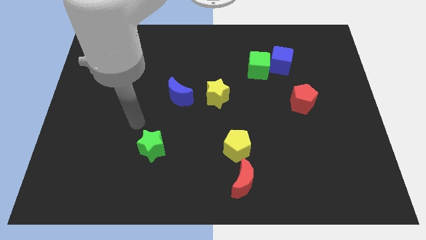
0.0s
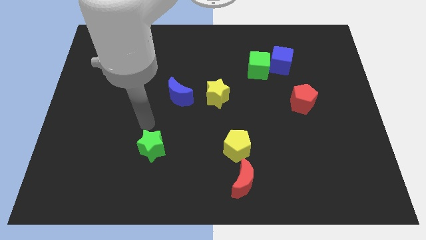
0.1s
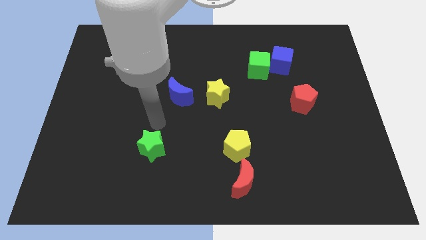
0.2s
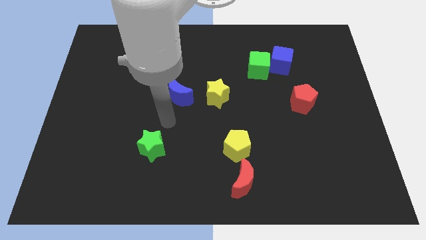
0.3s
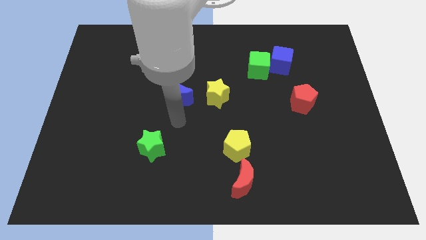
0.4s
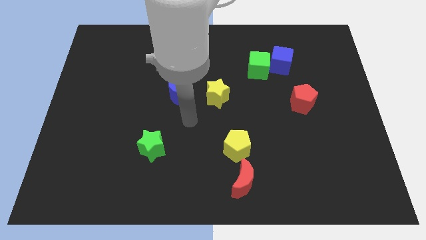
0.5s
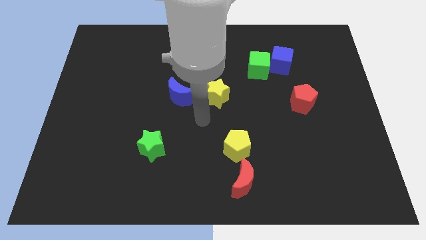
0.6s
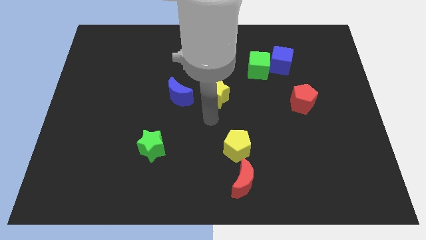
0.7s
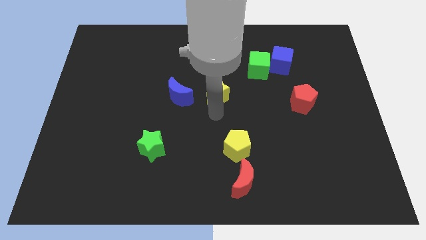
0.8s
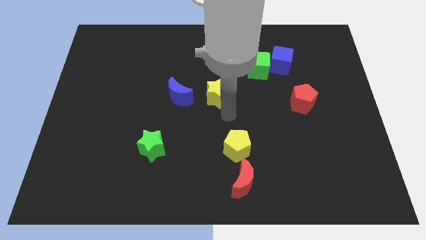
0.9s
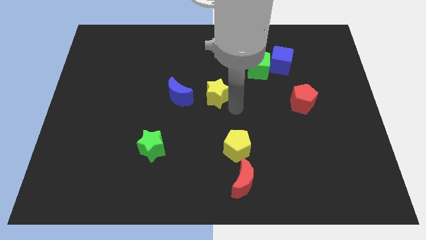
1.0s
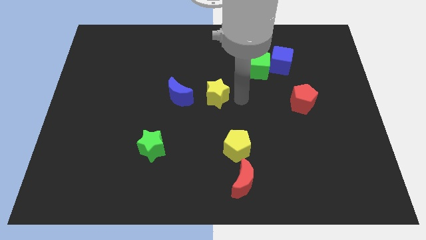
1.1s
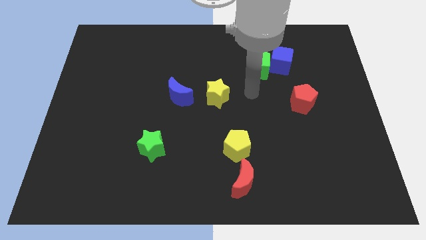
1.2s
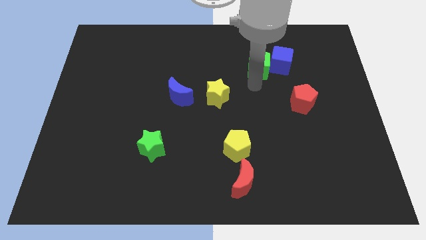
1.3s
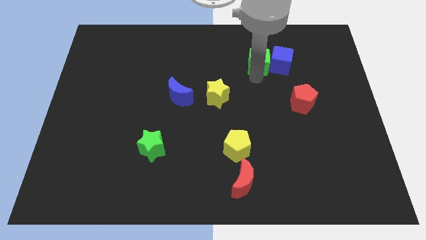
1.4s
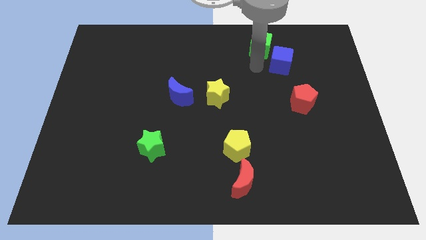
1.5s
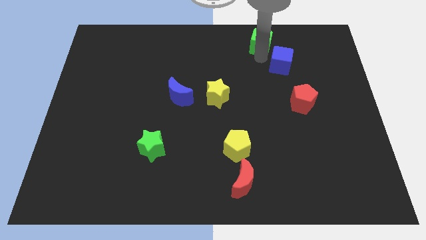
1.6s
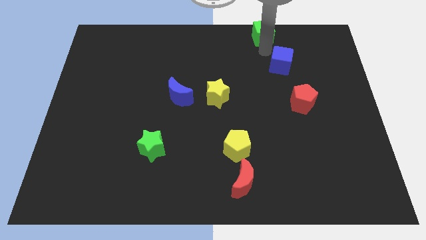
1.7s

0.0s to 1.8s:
separate the blue cube from the green cube

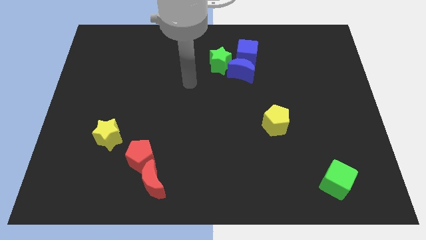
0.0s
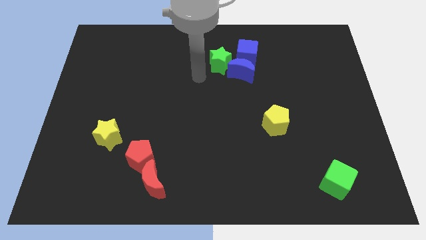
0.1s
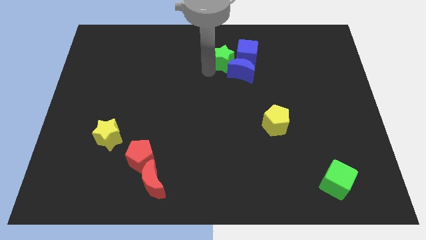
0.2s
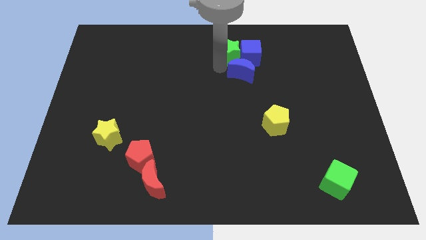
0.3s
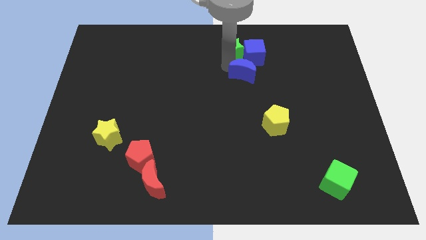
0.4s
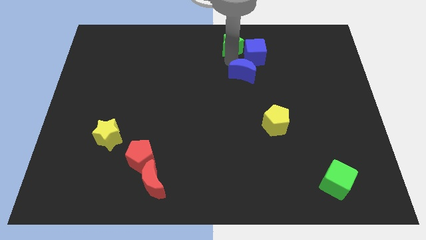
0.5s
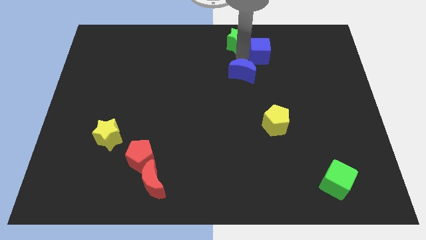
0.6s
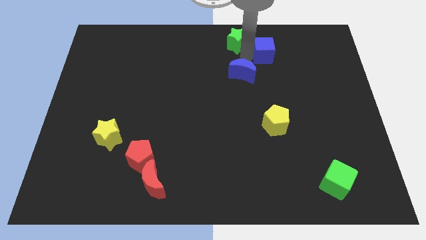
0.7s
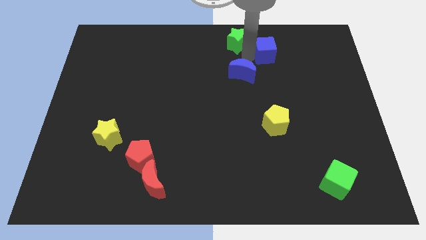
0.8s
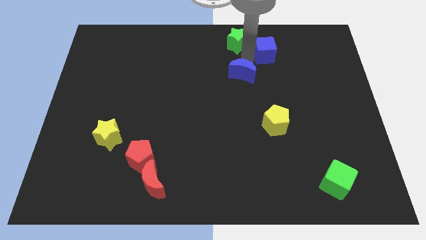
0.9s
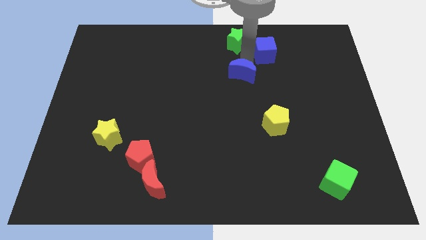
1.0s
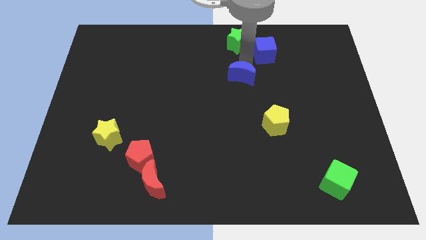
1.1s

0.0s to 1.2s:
separate the blue moon from the blue cube and green star

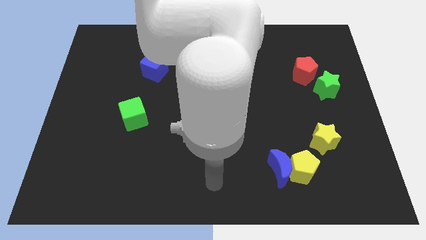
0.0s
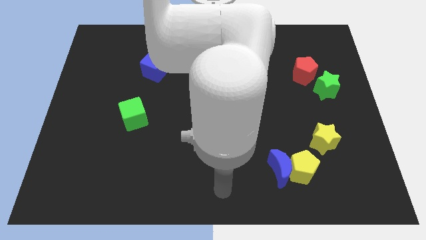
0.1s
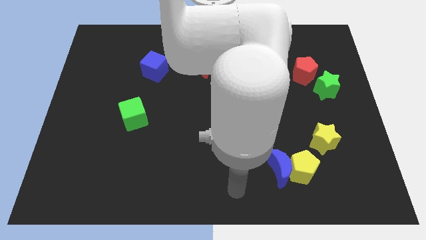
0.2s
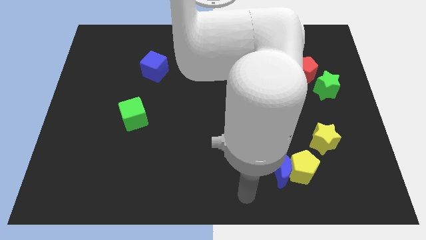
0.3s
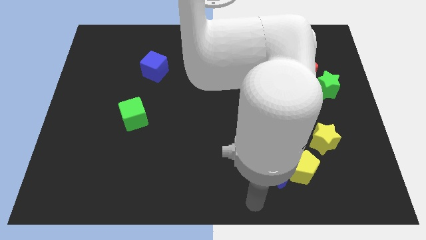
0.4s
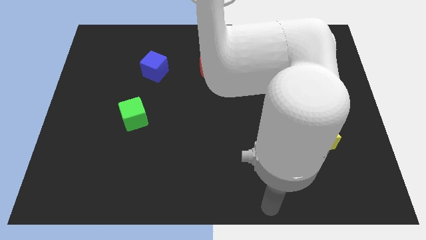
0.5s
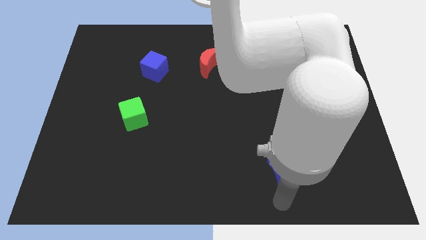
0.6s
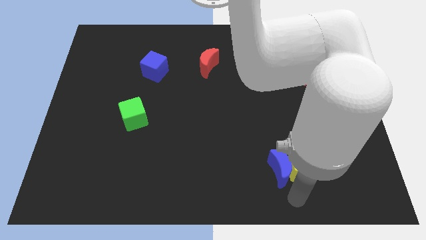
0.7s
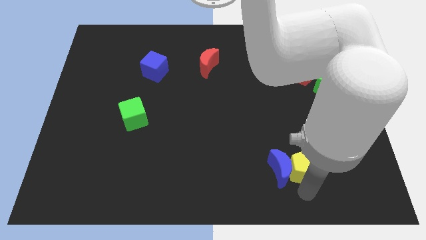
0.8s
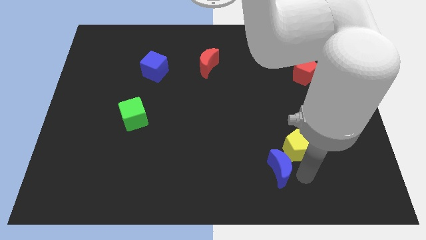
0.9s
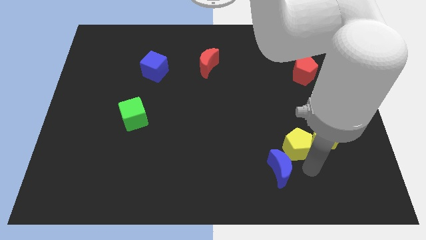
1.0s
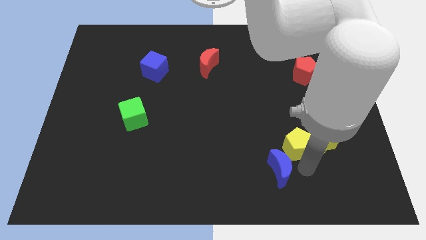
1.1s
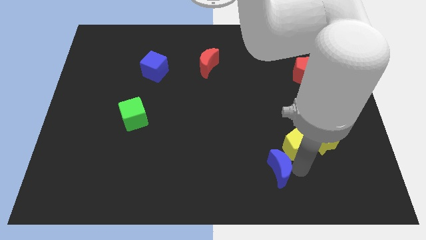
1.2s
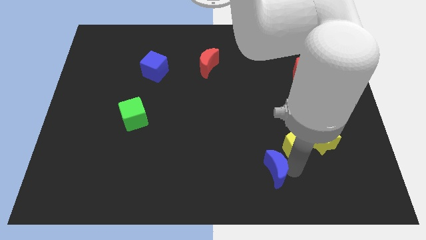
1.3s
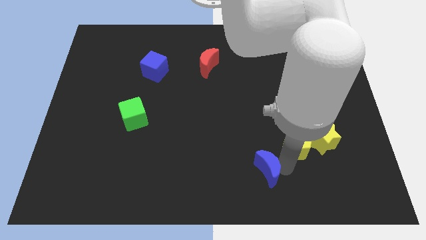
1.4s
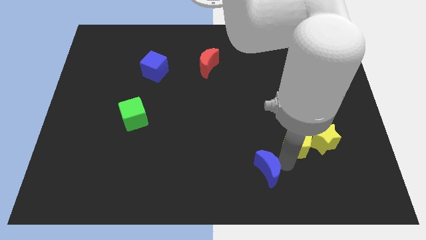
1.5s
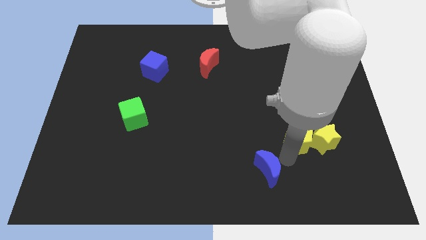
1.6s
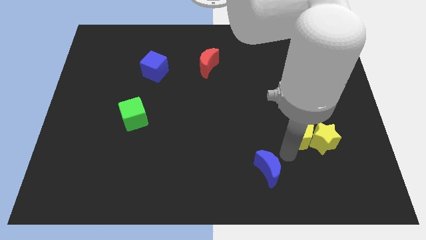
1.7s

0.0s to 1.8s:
separate the blue moon from the yellow pentagon

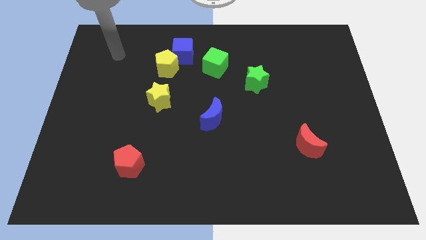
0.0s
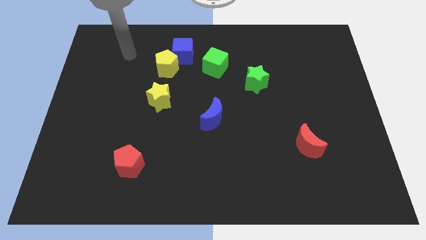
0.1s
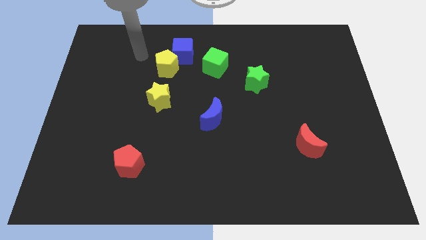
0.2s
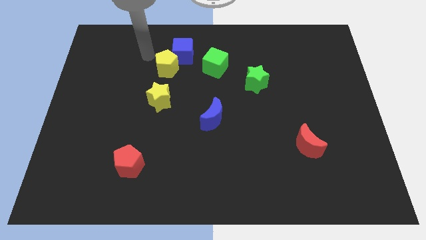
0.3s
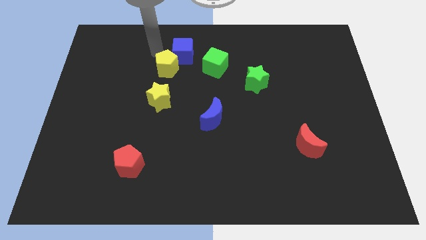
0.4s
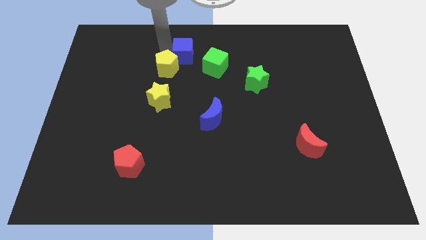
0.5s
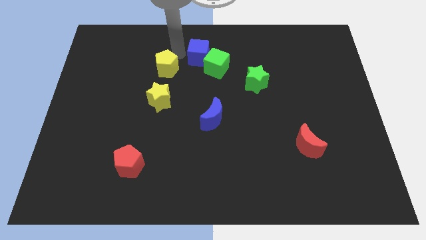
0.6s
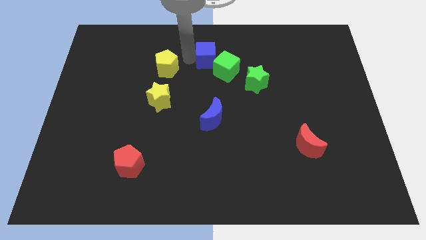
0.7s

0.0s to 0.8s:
pull the yellow pentagon apart from the blue cube

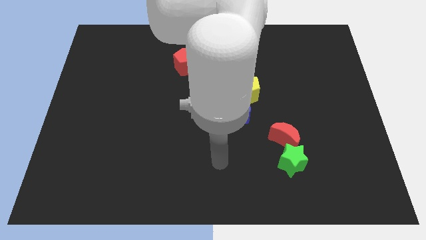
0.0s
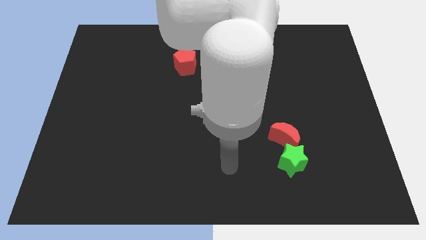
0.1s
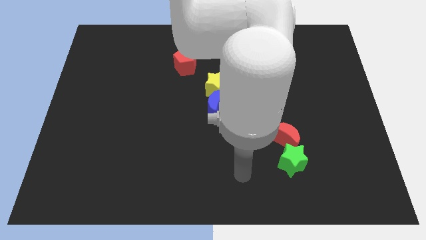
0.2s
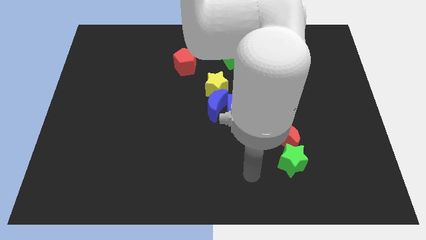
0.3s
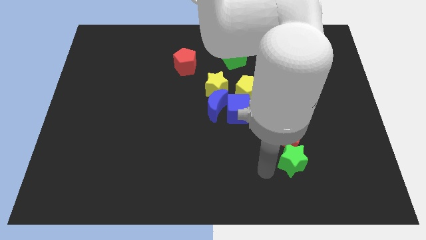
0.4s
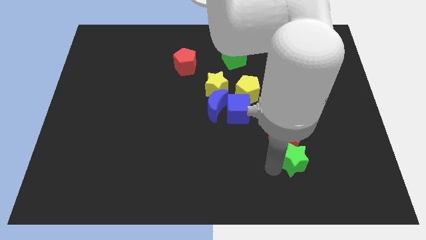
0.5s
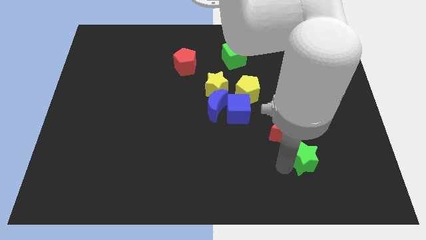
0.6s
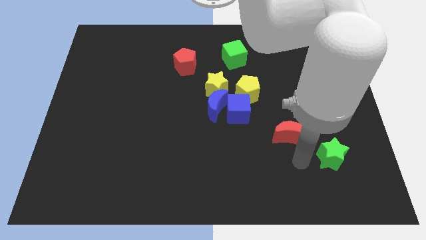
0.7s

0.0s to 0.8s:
move the red moon away from the green star

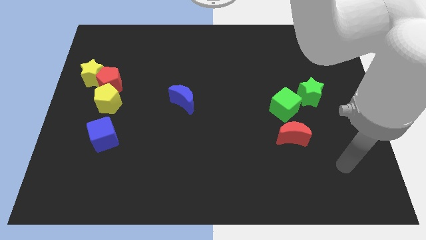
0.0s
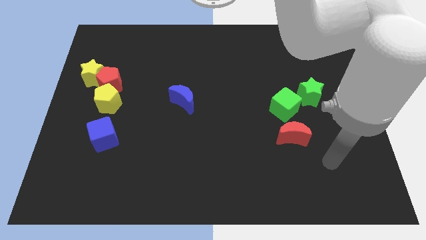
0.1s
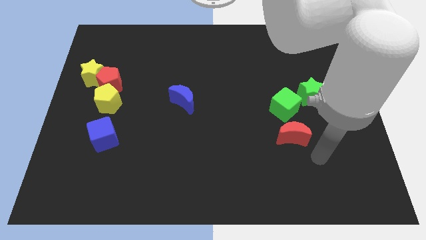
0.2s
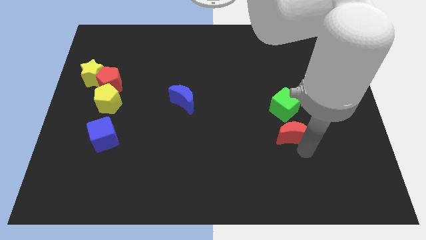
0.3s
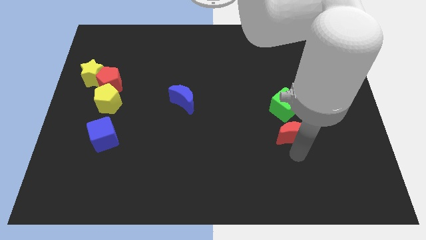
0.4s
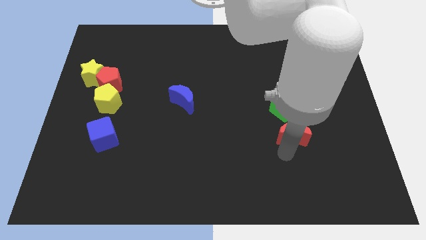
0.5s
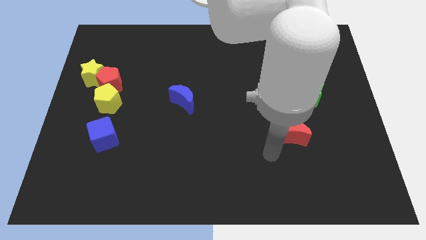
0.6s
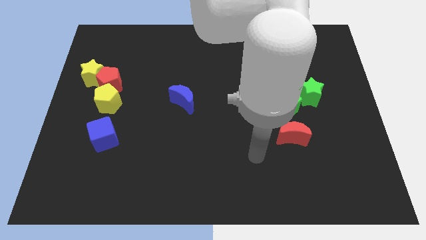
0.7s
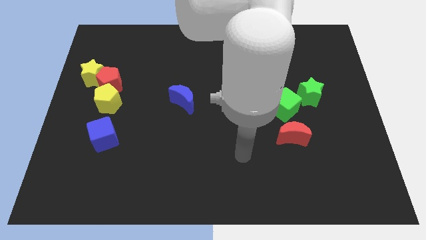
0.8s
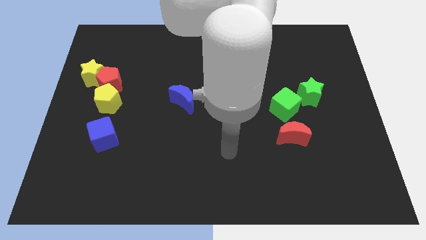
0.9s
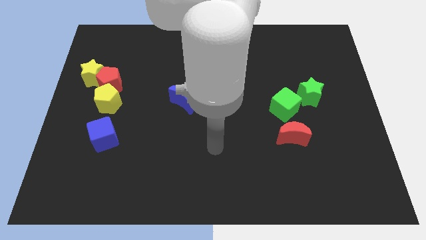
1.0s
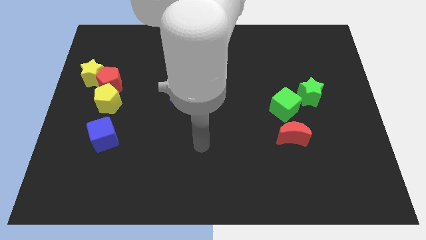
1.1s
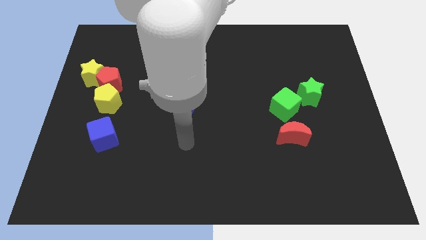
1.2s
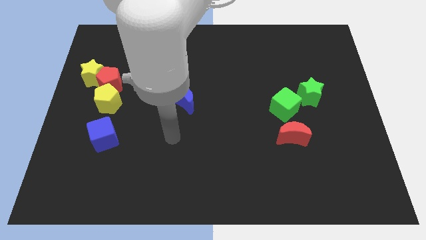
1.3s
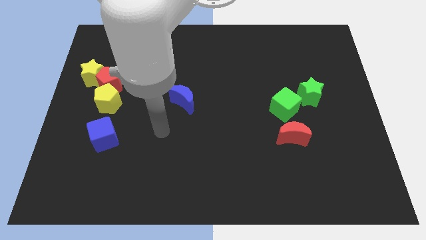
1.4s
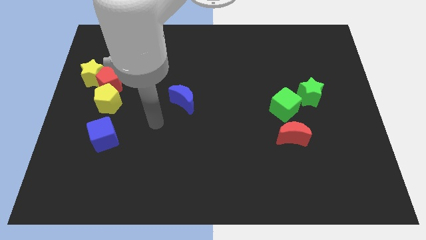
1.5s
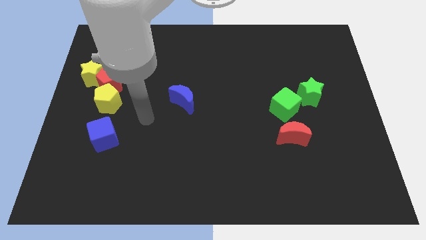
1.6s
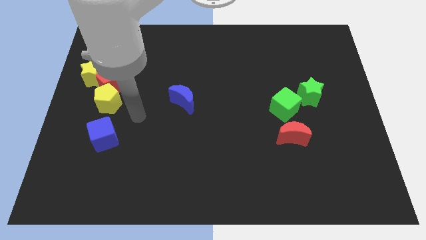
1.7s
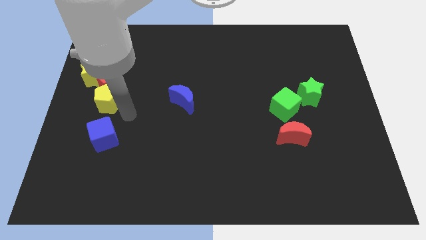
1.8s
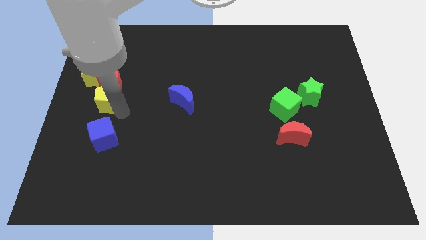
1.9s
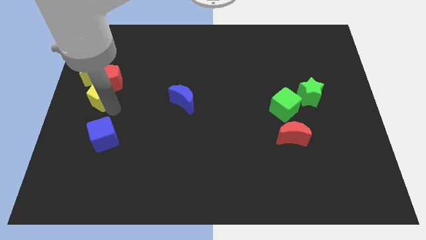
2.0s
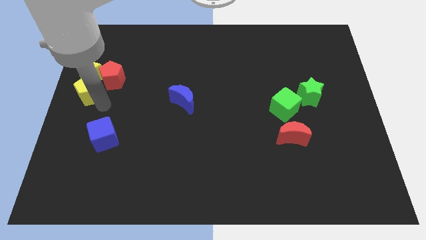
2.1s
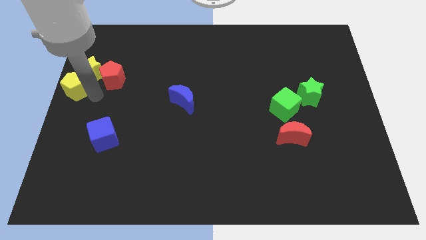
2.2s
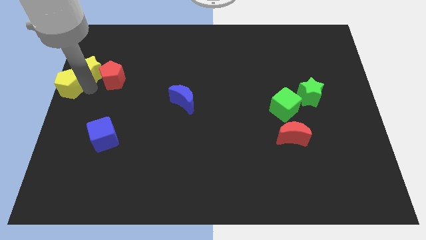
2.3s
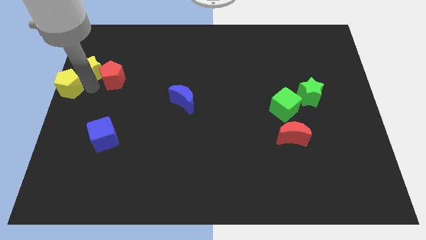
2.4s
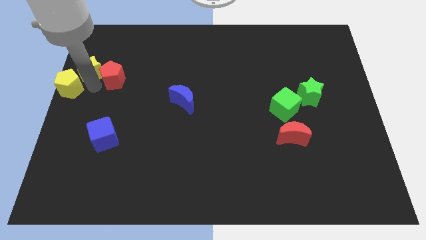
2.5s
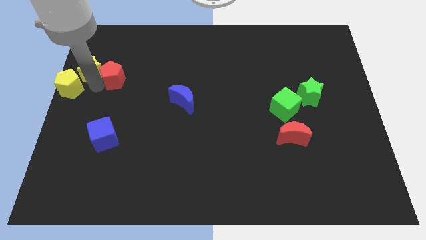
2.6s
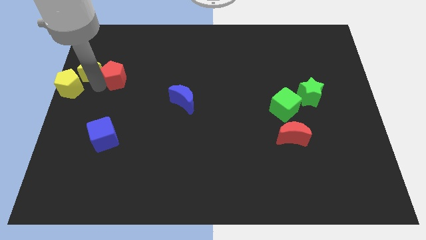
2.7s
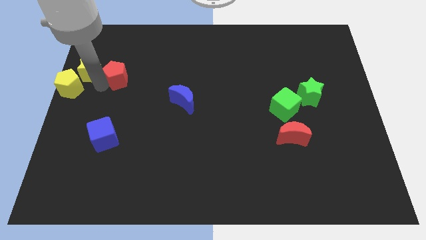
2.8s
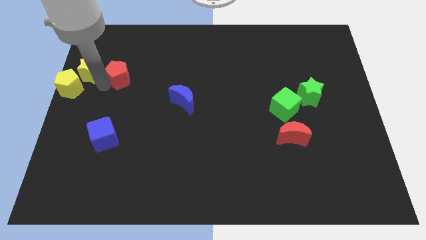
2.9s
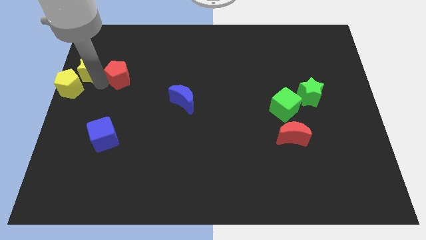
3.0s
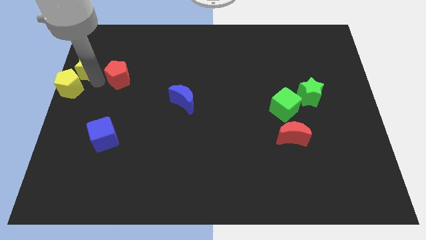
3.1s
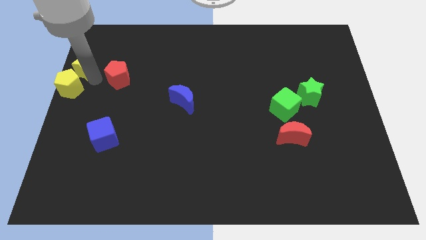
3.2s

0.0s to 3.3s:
pull the red pentagon apart from the yellow star and yellow pentagon
